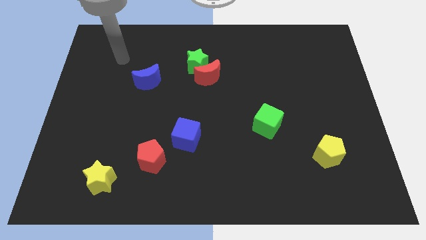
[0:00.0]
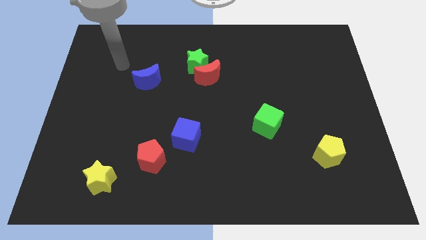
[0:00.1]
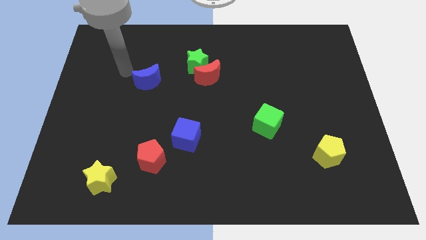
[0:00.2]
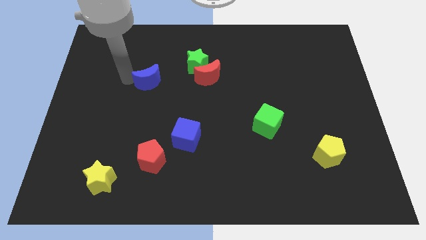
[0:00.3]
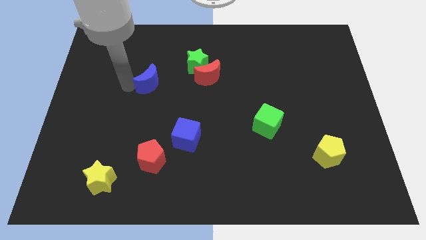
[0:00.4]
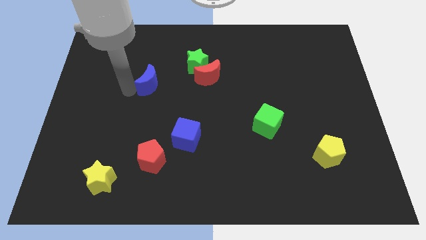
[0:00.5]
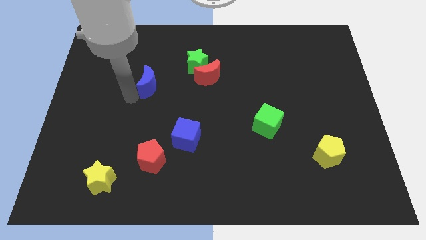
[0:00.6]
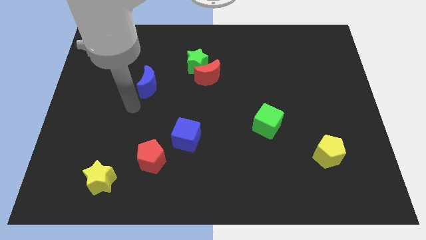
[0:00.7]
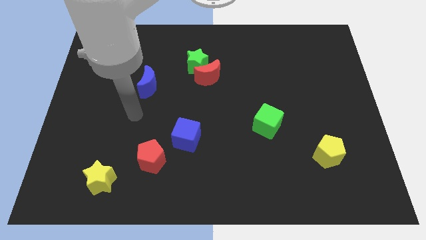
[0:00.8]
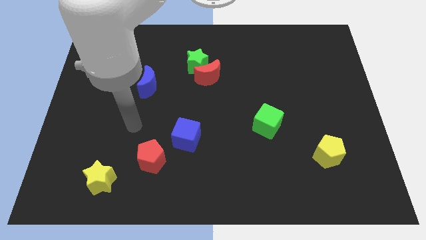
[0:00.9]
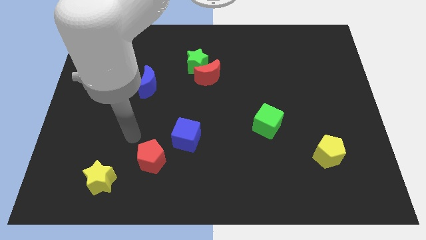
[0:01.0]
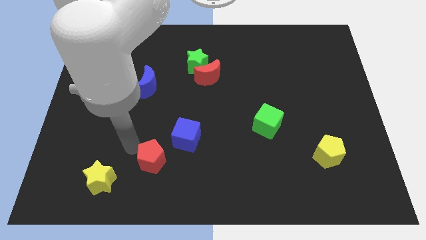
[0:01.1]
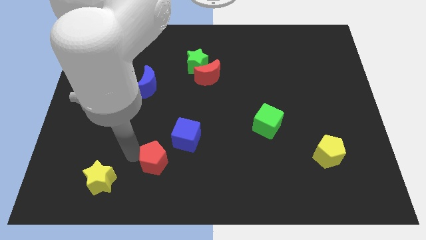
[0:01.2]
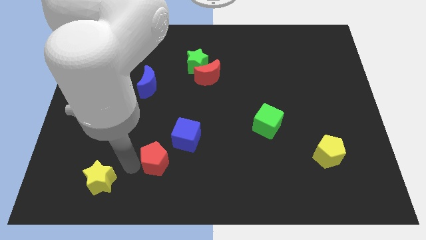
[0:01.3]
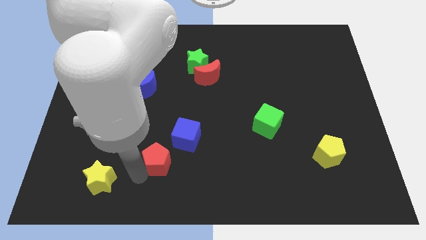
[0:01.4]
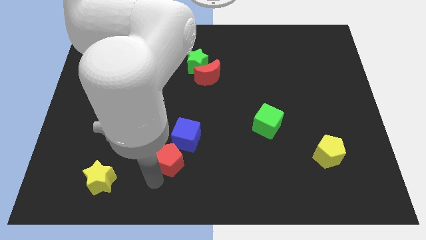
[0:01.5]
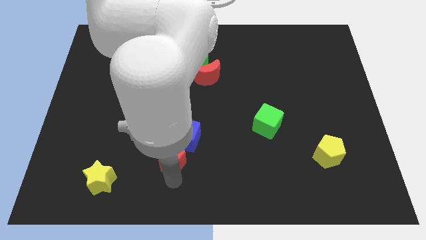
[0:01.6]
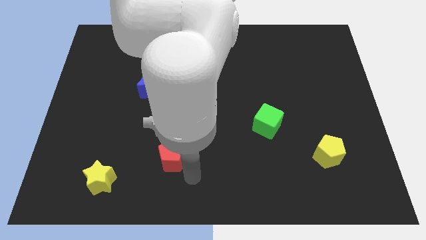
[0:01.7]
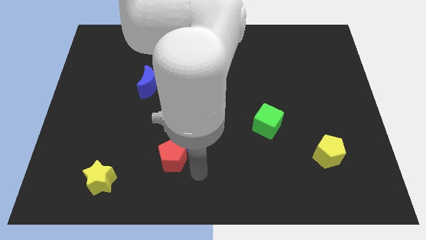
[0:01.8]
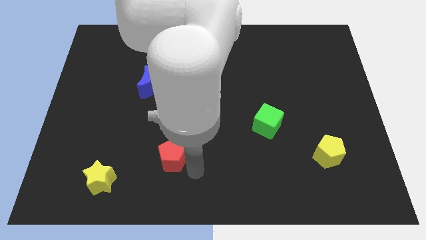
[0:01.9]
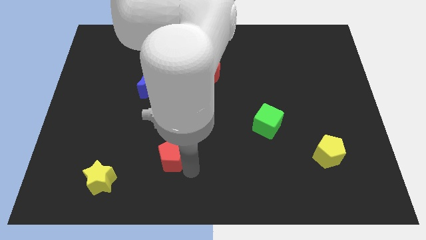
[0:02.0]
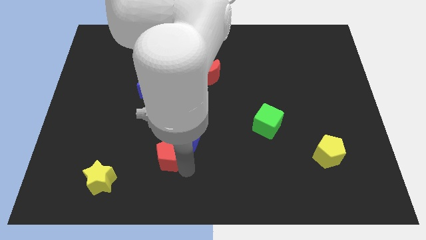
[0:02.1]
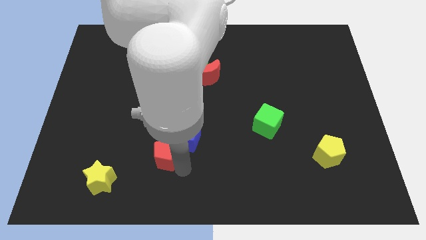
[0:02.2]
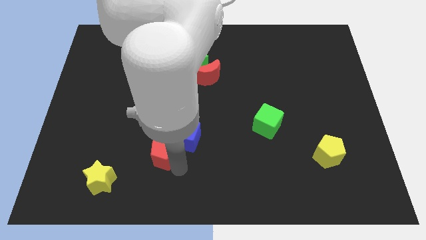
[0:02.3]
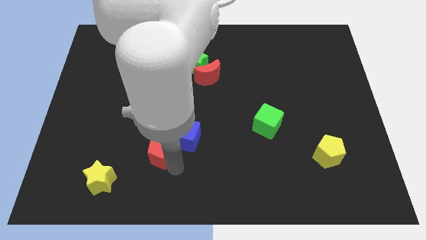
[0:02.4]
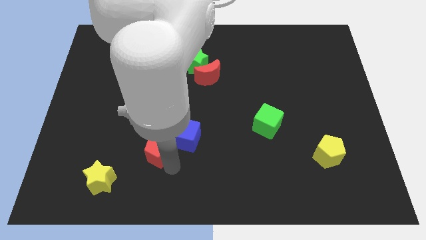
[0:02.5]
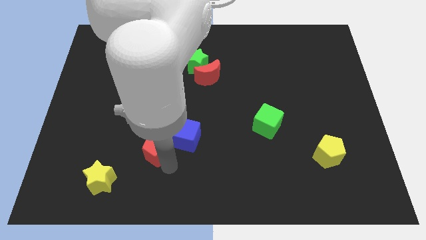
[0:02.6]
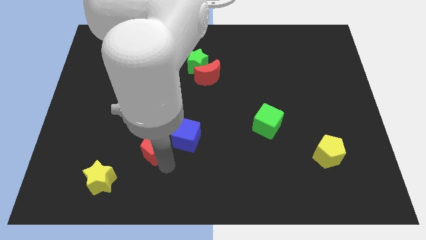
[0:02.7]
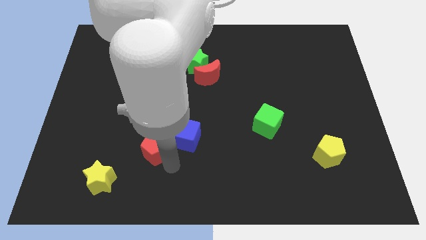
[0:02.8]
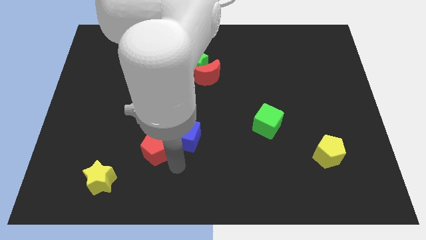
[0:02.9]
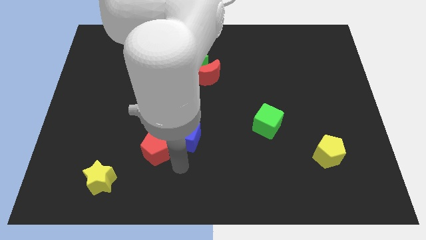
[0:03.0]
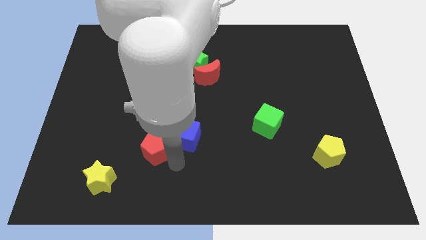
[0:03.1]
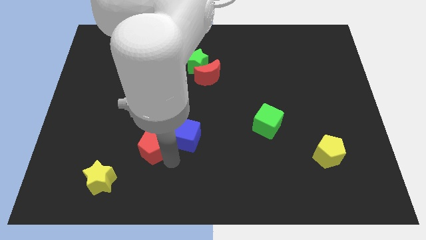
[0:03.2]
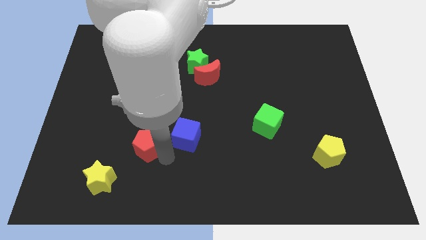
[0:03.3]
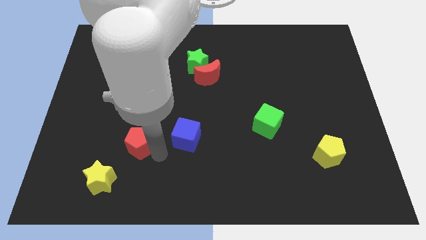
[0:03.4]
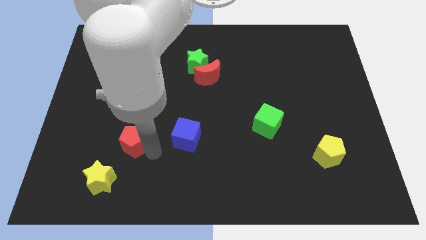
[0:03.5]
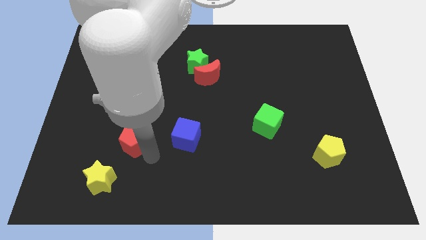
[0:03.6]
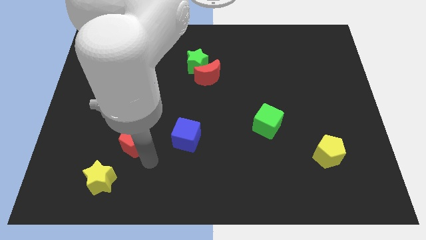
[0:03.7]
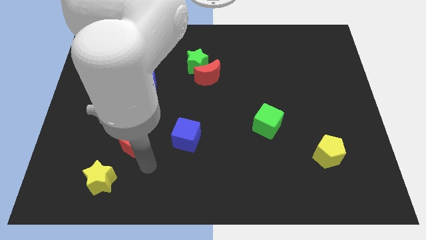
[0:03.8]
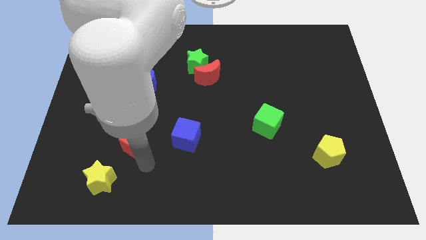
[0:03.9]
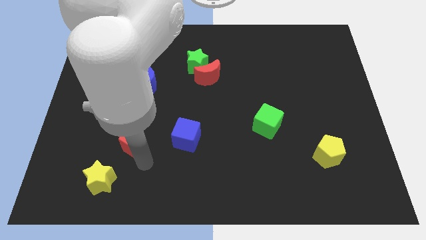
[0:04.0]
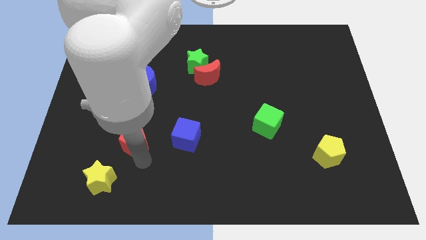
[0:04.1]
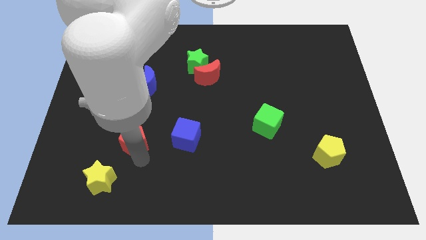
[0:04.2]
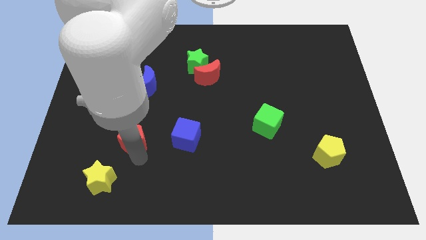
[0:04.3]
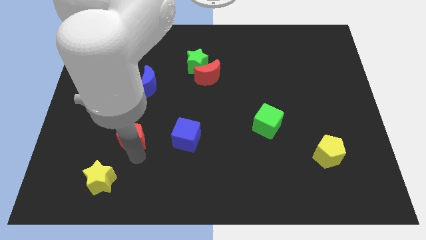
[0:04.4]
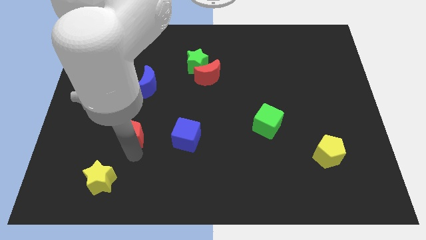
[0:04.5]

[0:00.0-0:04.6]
move the red pentagon upwards and to the left diagonally slightly

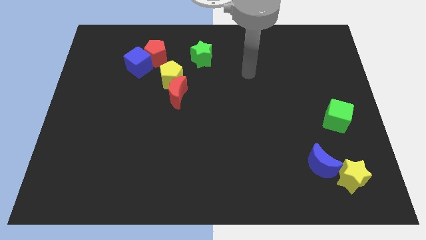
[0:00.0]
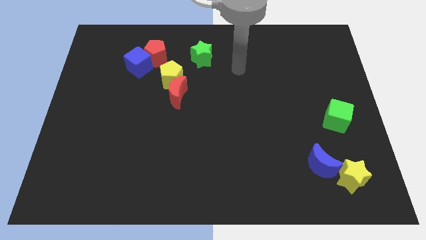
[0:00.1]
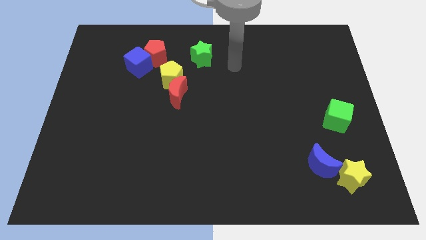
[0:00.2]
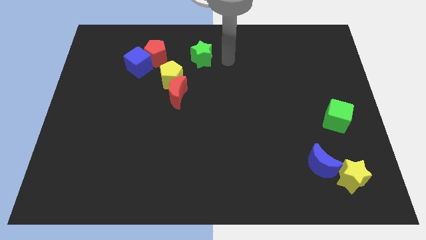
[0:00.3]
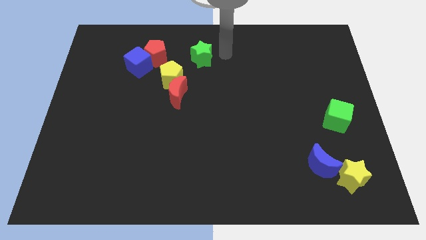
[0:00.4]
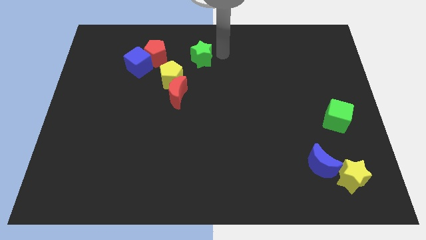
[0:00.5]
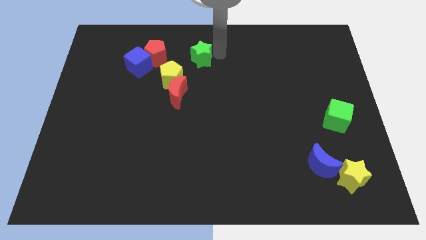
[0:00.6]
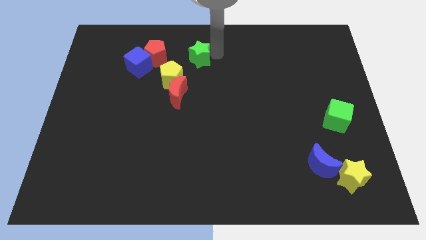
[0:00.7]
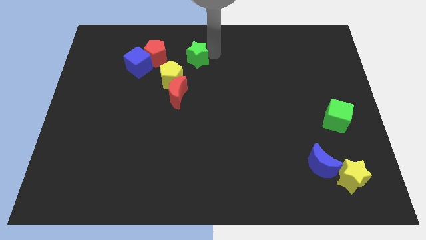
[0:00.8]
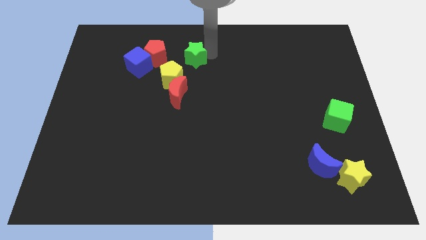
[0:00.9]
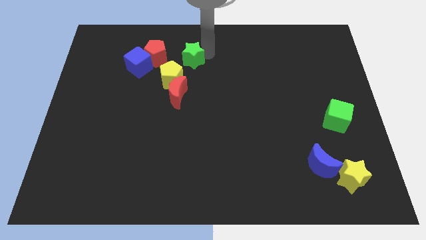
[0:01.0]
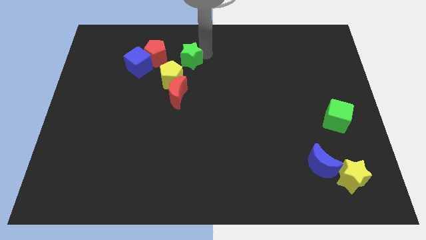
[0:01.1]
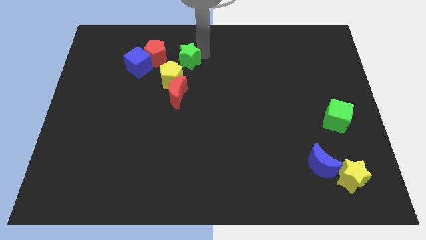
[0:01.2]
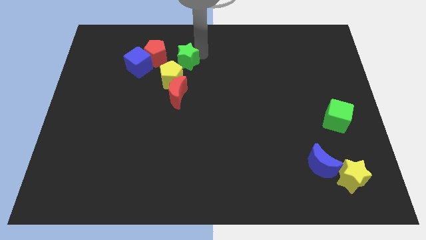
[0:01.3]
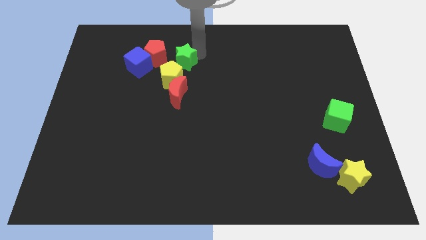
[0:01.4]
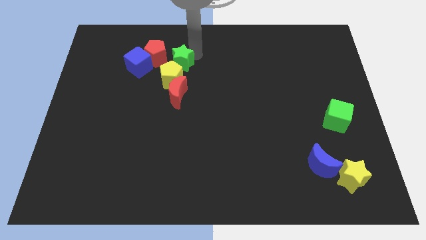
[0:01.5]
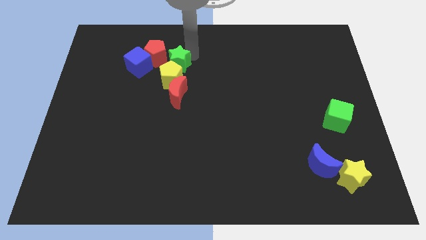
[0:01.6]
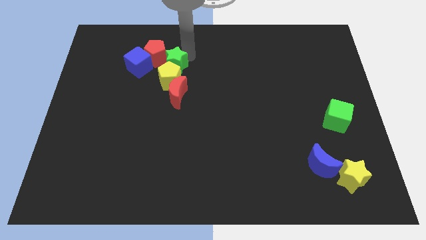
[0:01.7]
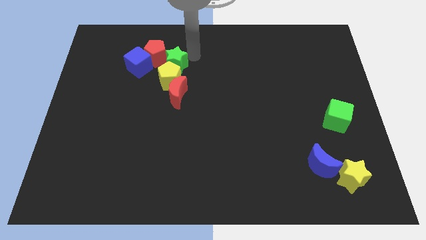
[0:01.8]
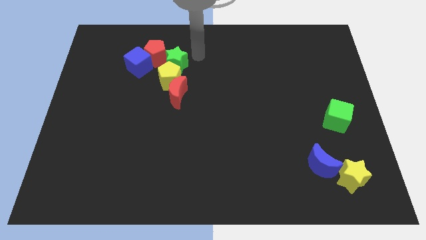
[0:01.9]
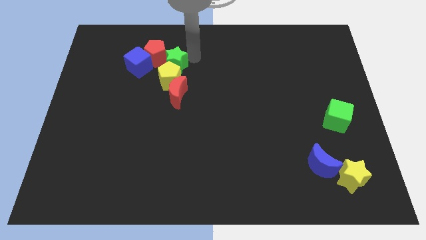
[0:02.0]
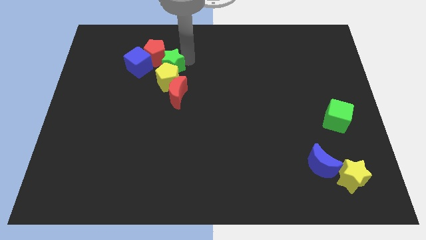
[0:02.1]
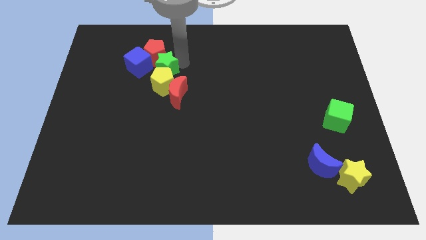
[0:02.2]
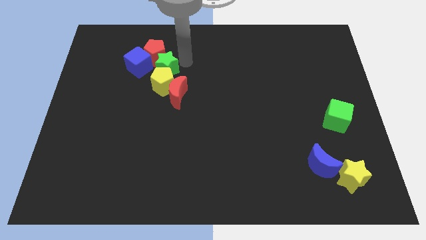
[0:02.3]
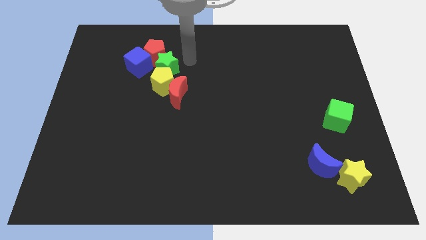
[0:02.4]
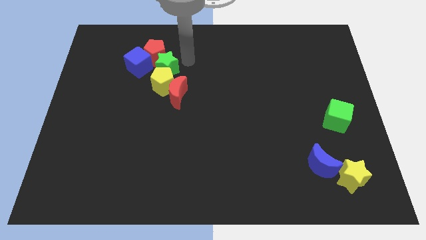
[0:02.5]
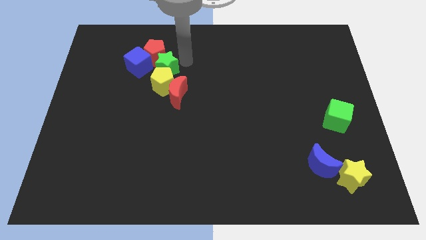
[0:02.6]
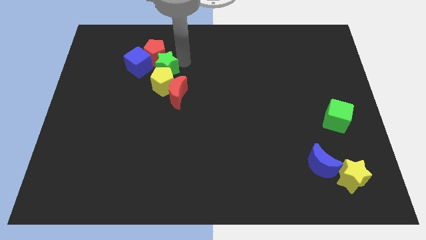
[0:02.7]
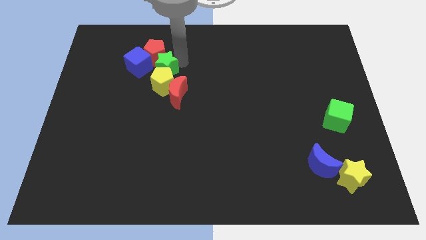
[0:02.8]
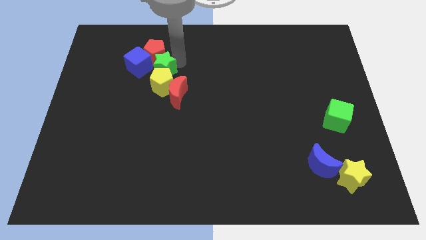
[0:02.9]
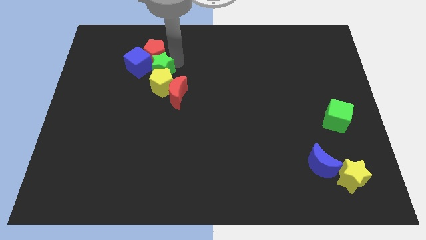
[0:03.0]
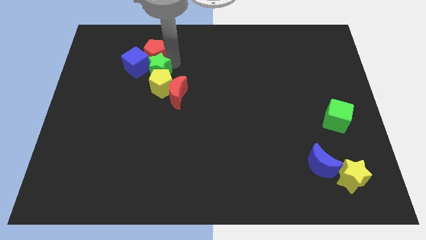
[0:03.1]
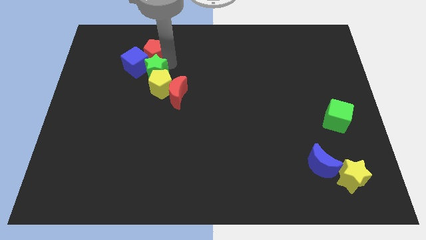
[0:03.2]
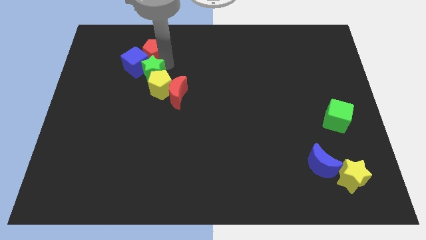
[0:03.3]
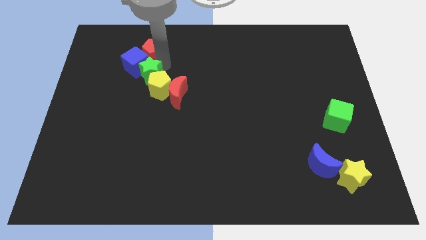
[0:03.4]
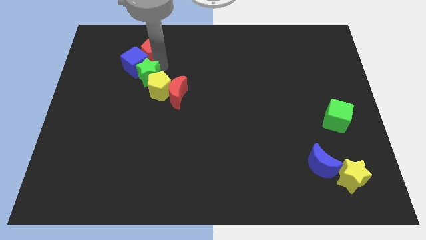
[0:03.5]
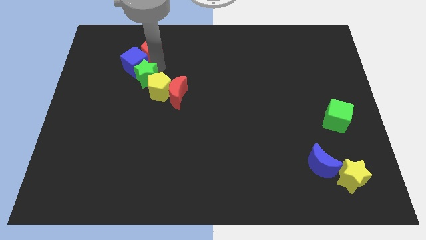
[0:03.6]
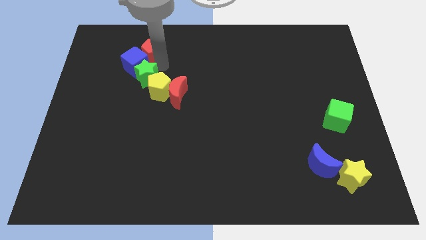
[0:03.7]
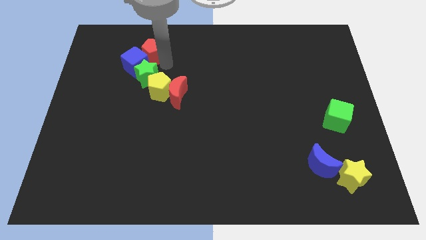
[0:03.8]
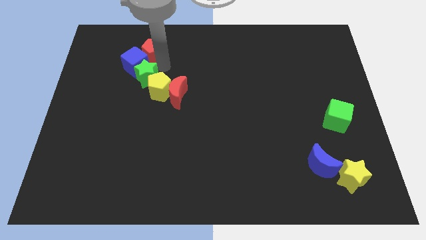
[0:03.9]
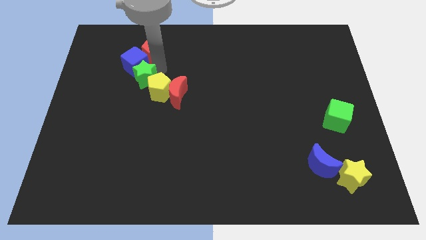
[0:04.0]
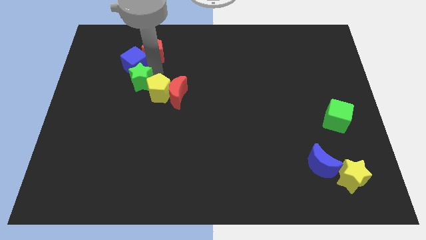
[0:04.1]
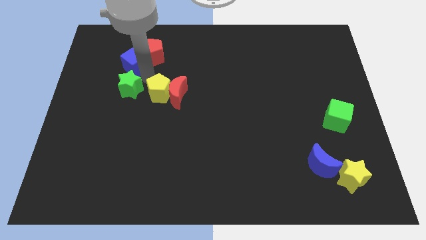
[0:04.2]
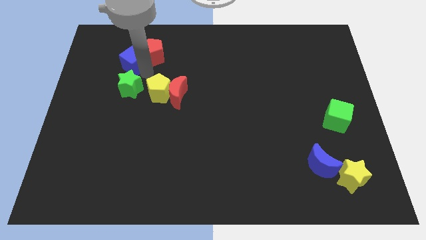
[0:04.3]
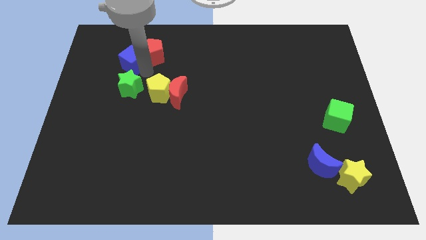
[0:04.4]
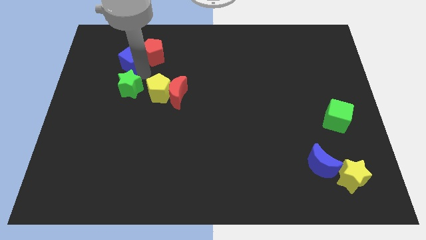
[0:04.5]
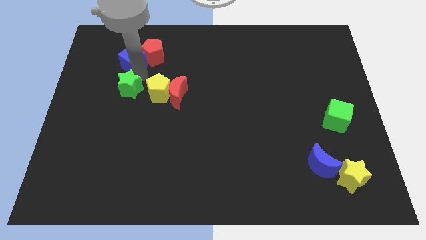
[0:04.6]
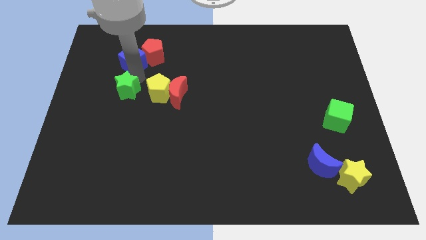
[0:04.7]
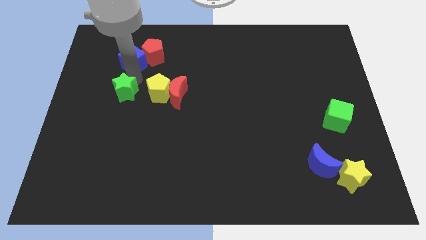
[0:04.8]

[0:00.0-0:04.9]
slide the green star downwards and then to the left
